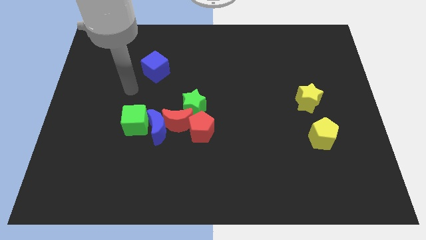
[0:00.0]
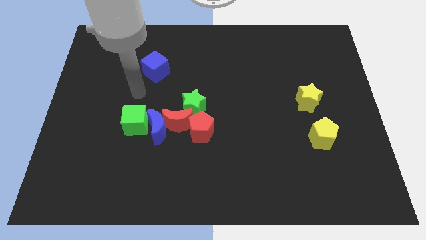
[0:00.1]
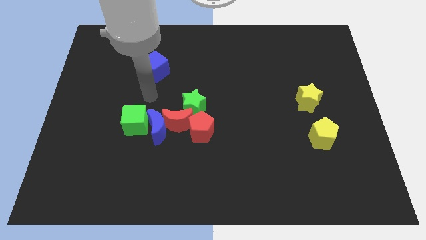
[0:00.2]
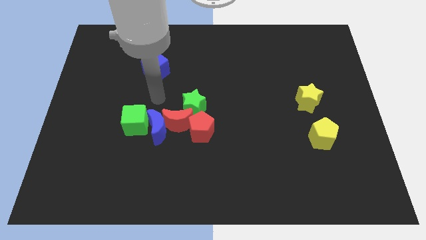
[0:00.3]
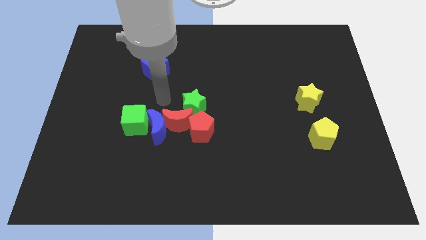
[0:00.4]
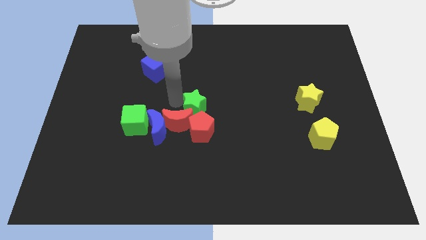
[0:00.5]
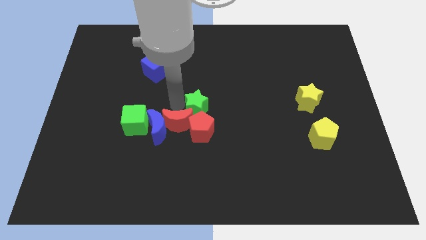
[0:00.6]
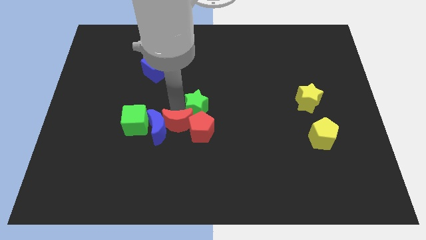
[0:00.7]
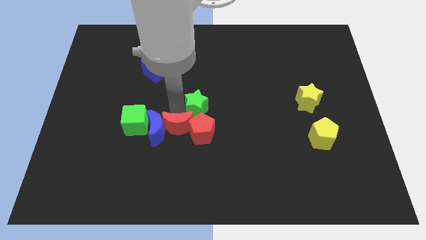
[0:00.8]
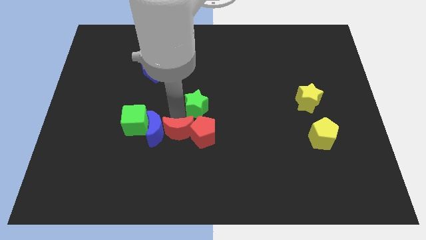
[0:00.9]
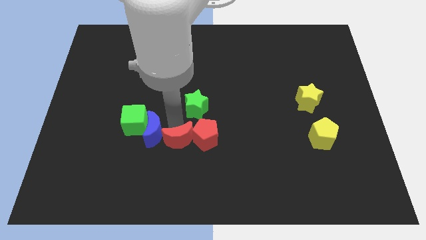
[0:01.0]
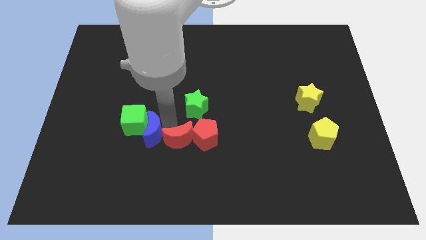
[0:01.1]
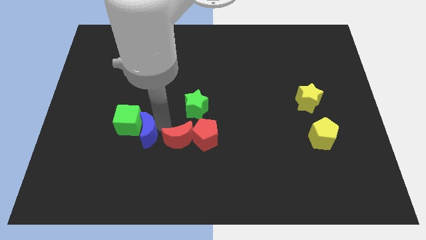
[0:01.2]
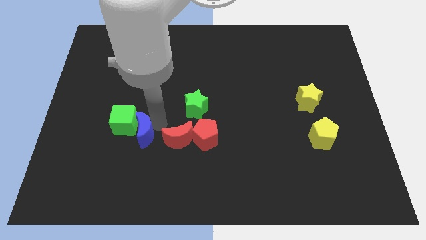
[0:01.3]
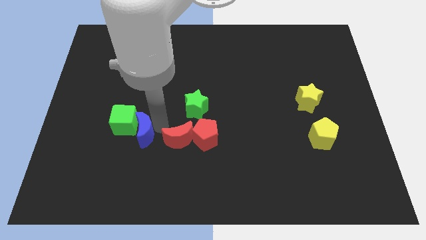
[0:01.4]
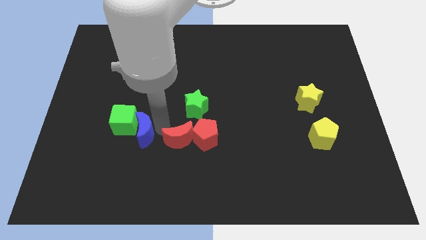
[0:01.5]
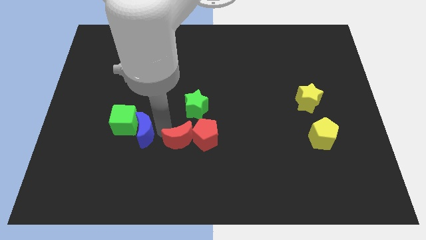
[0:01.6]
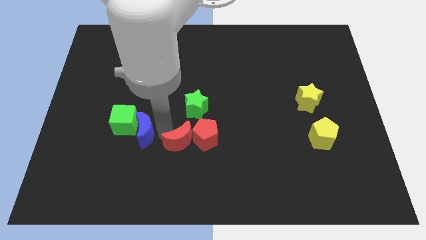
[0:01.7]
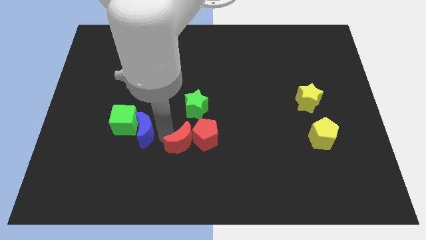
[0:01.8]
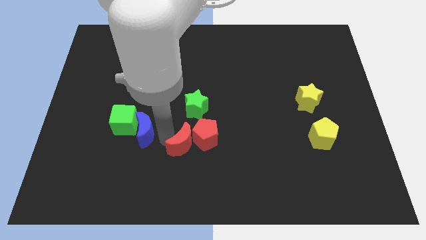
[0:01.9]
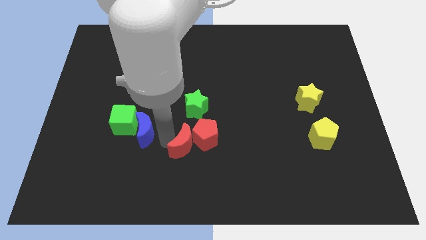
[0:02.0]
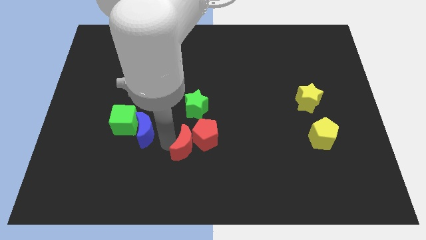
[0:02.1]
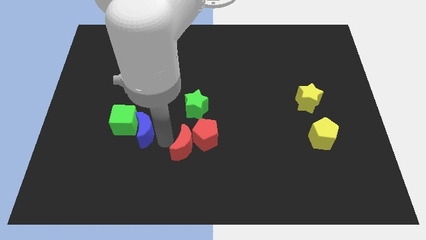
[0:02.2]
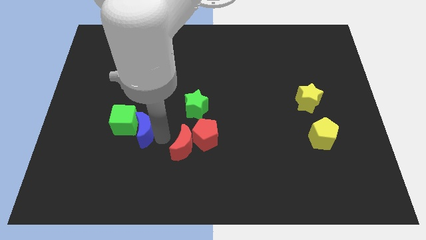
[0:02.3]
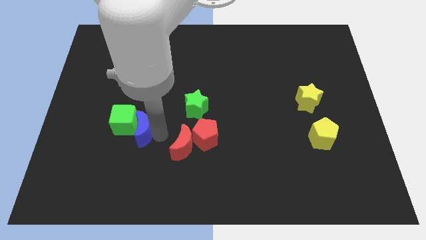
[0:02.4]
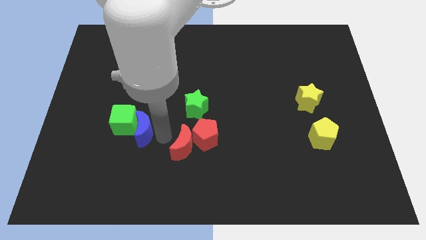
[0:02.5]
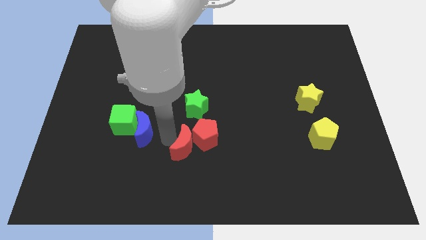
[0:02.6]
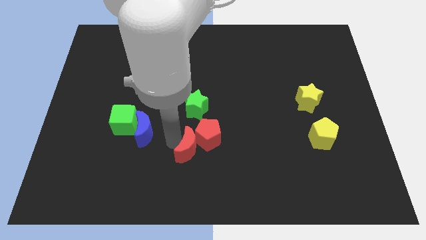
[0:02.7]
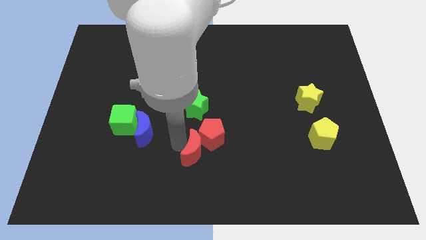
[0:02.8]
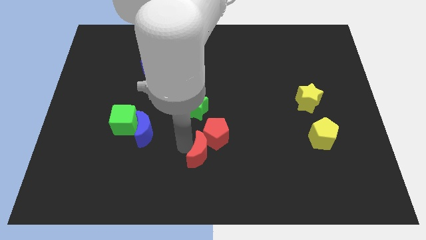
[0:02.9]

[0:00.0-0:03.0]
move the red moon away from the group of blocks

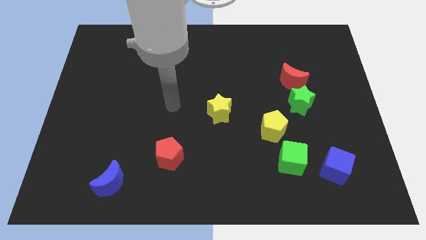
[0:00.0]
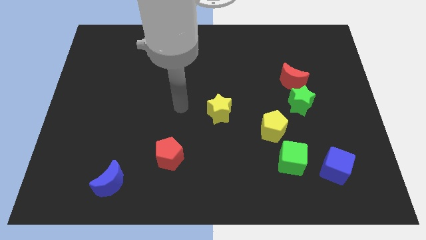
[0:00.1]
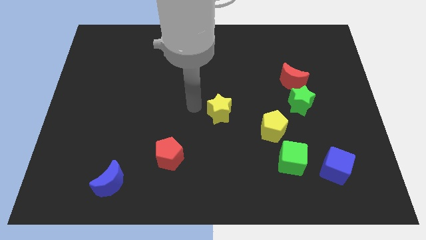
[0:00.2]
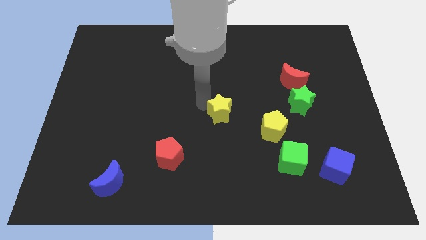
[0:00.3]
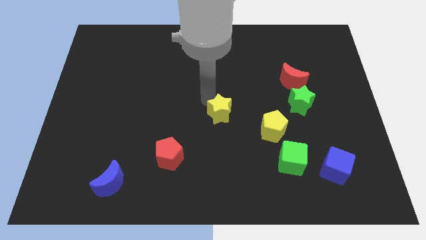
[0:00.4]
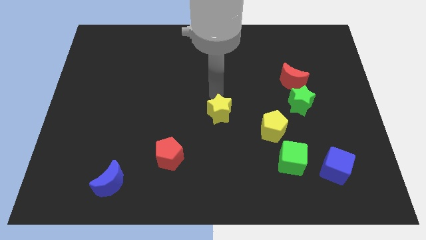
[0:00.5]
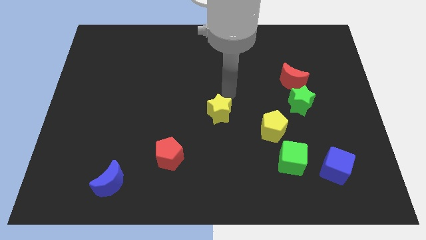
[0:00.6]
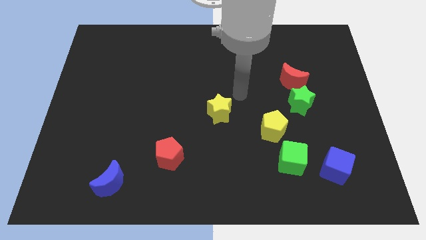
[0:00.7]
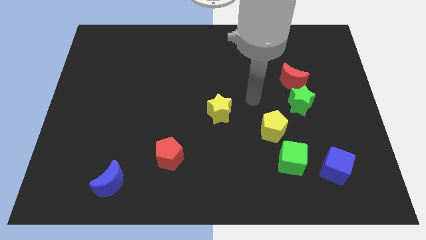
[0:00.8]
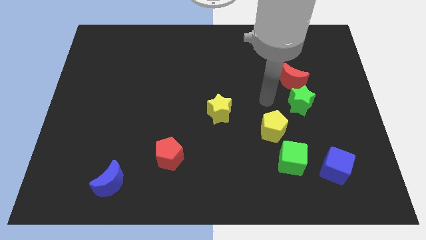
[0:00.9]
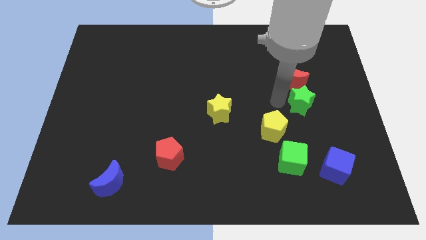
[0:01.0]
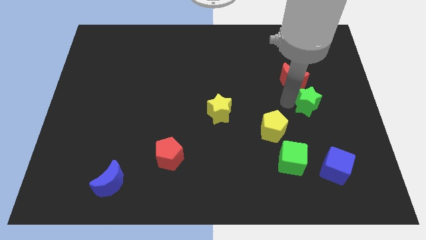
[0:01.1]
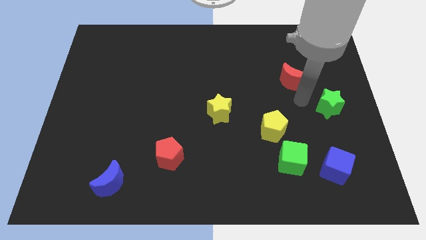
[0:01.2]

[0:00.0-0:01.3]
separate the red moon from the green star

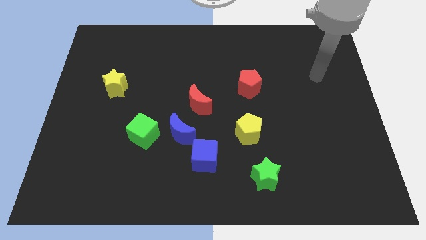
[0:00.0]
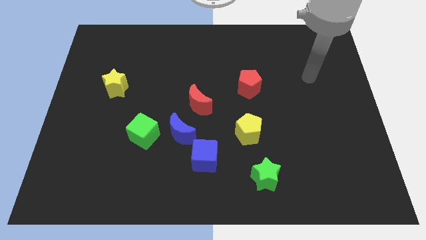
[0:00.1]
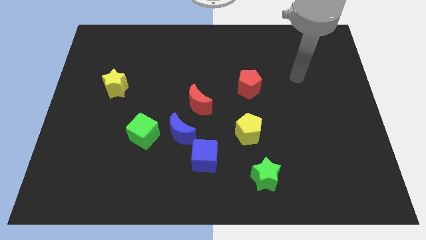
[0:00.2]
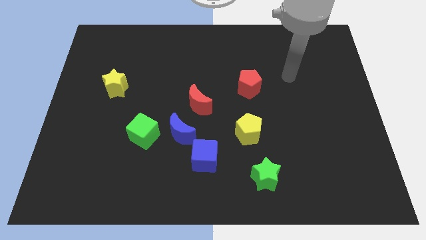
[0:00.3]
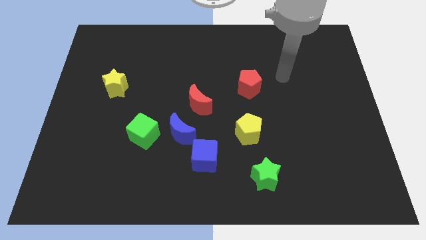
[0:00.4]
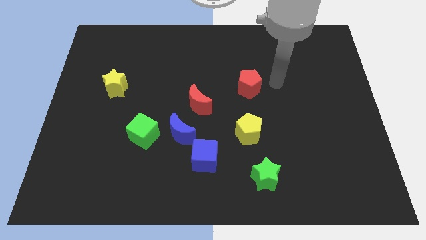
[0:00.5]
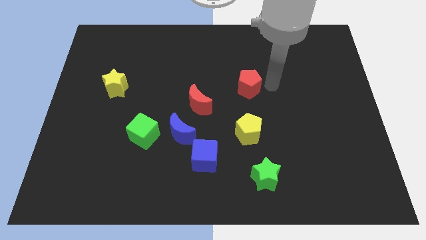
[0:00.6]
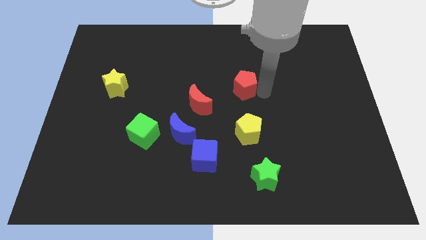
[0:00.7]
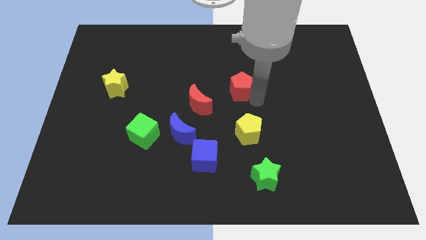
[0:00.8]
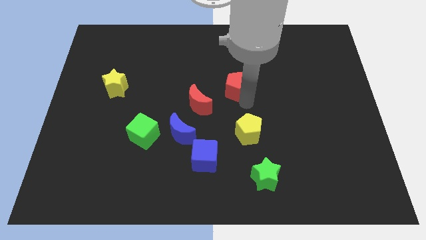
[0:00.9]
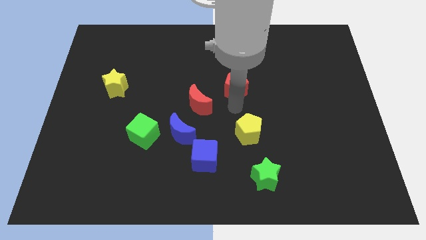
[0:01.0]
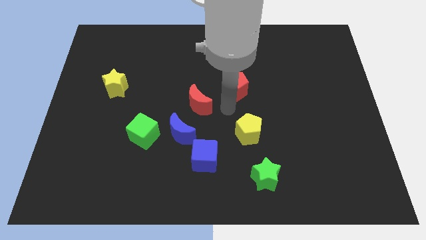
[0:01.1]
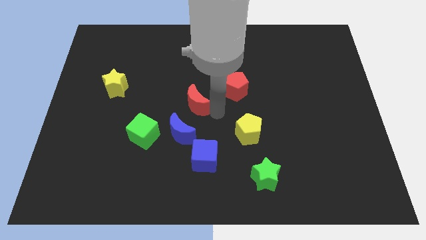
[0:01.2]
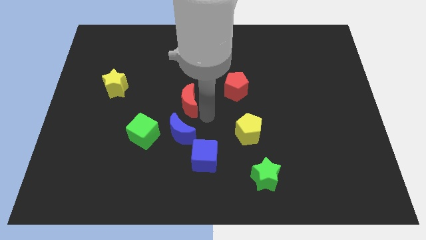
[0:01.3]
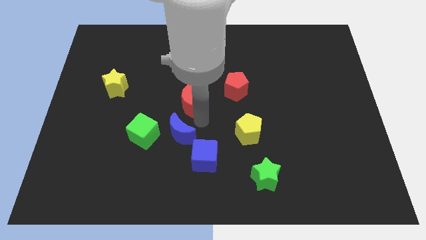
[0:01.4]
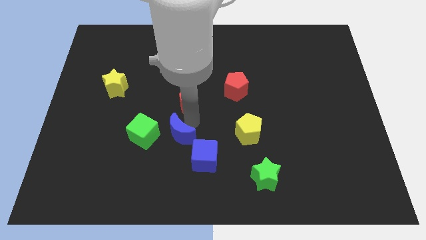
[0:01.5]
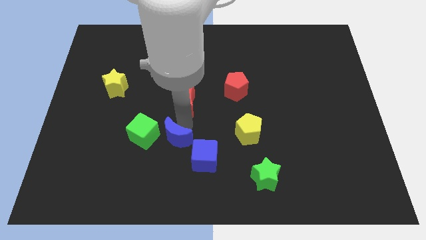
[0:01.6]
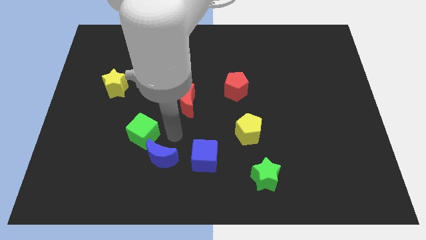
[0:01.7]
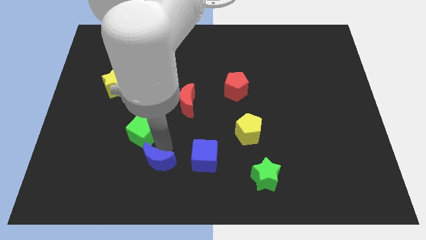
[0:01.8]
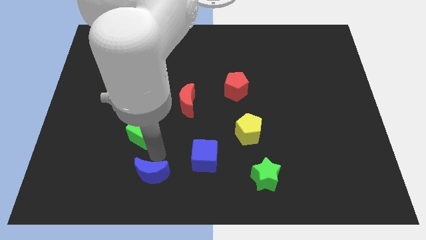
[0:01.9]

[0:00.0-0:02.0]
move the green cube away from the blue moon

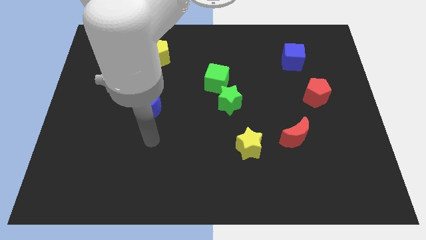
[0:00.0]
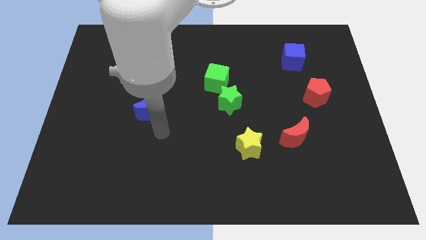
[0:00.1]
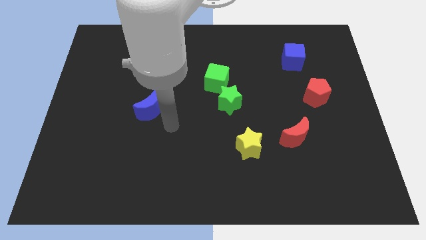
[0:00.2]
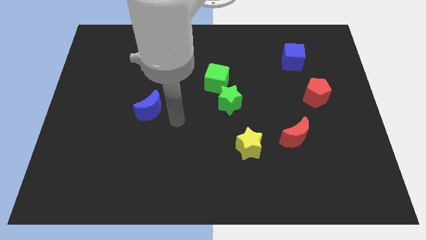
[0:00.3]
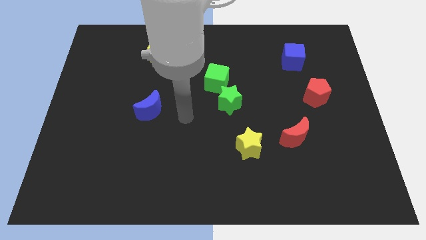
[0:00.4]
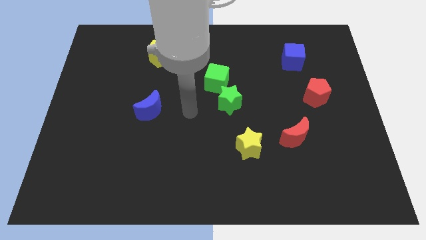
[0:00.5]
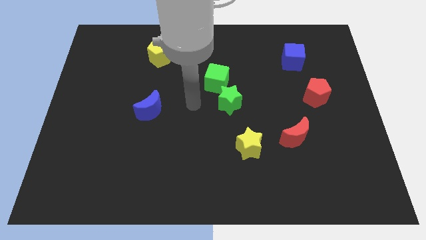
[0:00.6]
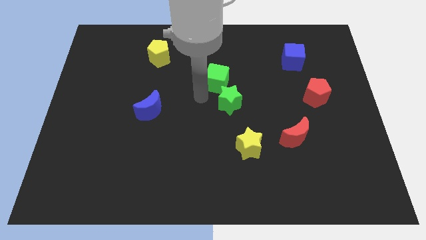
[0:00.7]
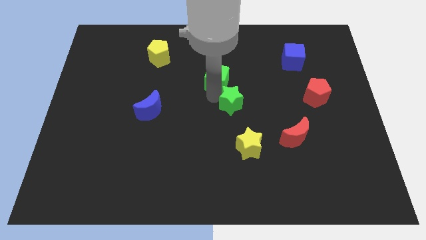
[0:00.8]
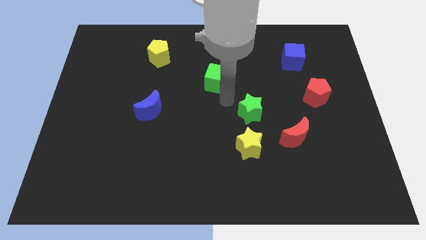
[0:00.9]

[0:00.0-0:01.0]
pull the green cube apart from the green star

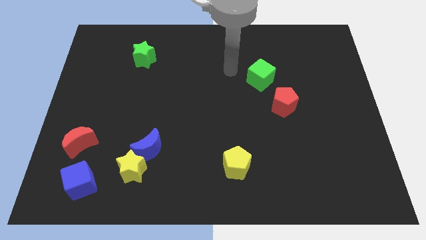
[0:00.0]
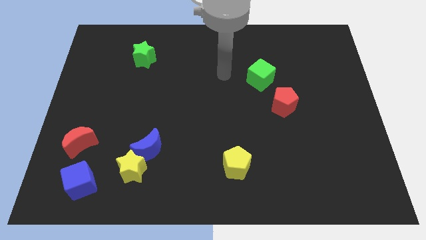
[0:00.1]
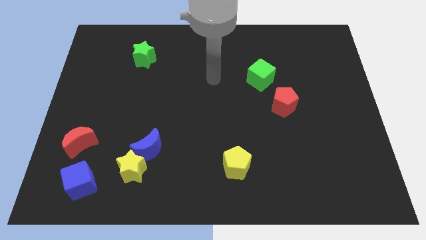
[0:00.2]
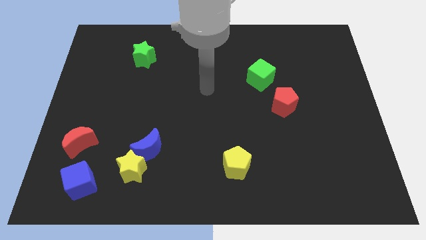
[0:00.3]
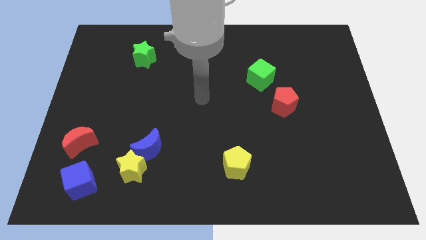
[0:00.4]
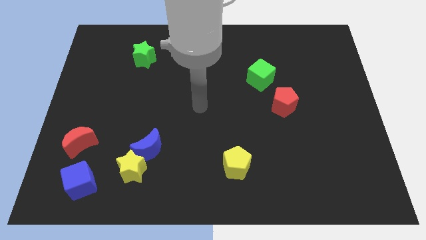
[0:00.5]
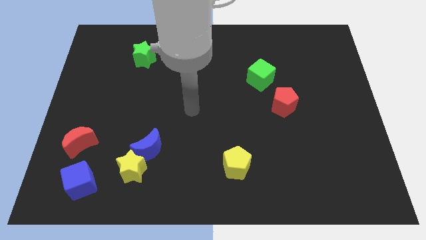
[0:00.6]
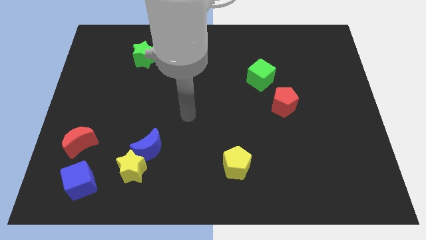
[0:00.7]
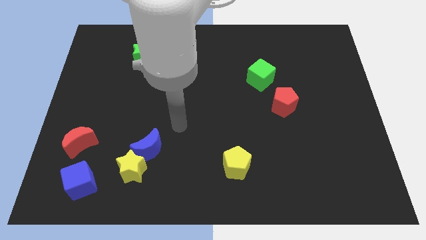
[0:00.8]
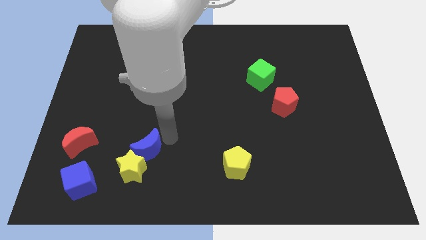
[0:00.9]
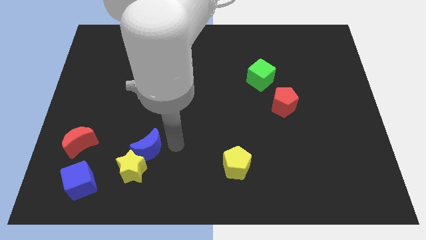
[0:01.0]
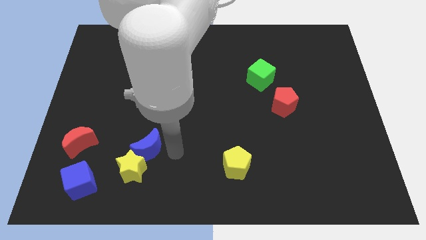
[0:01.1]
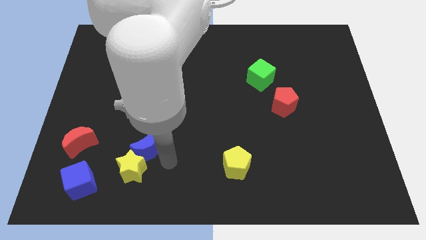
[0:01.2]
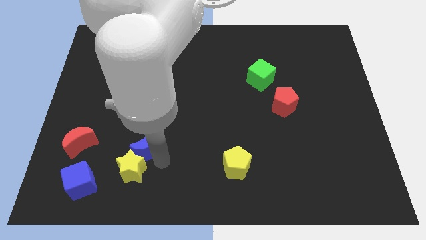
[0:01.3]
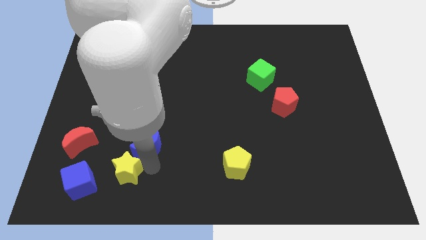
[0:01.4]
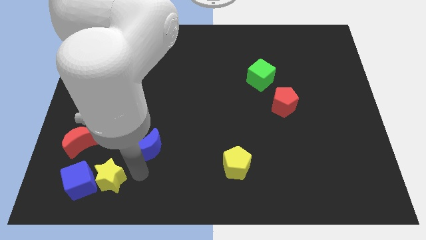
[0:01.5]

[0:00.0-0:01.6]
pull the blue moon apart from the yellow star

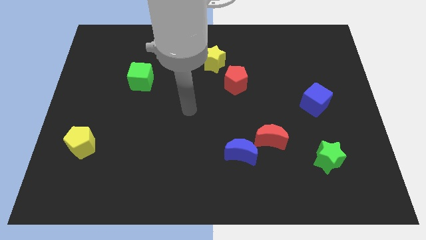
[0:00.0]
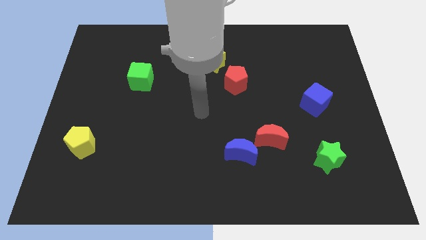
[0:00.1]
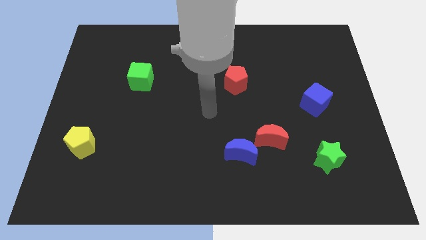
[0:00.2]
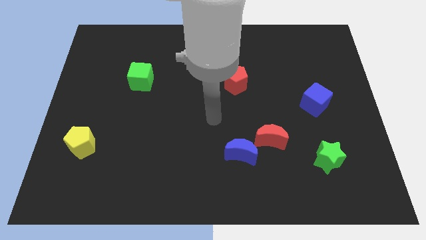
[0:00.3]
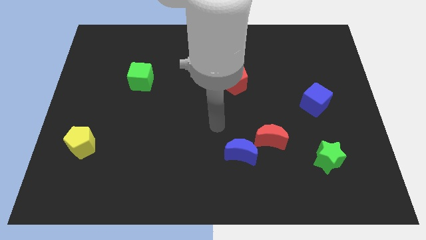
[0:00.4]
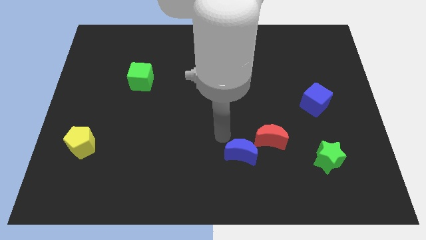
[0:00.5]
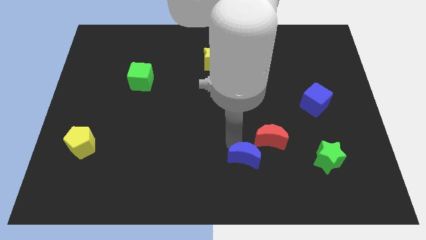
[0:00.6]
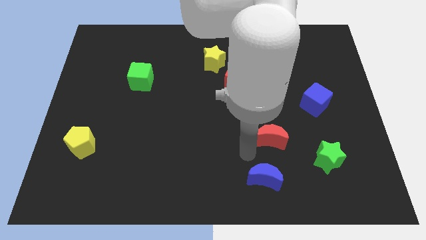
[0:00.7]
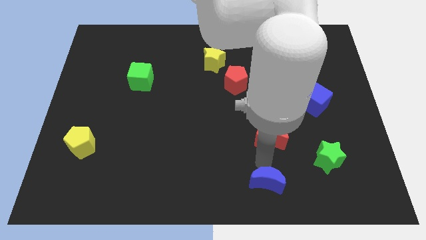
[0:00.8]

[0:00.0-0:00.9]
move the red moon away from the blue moon
